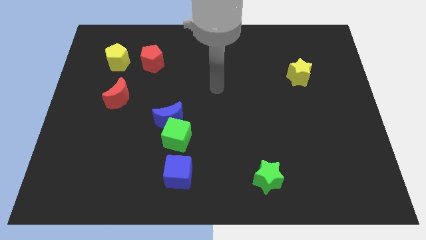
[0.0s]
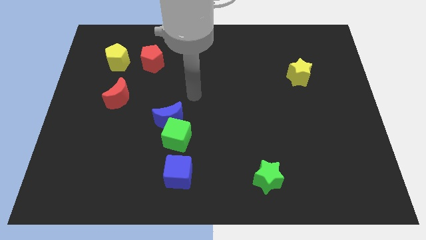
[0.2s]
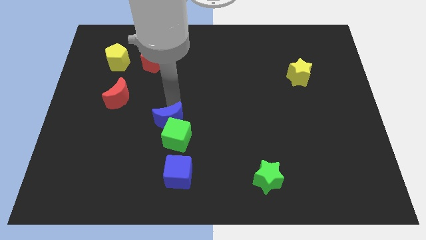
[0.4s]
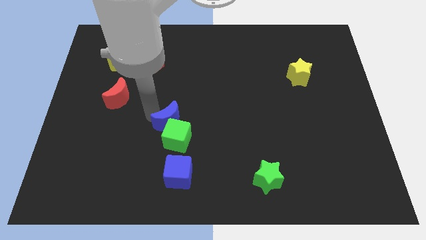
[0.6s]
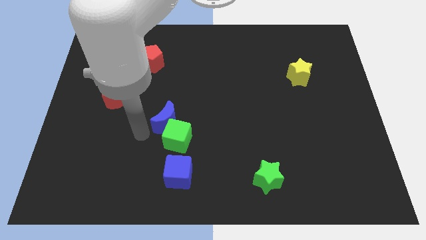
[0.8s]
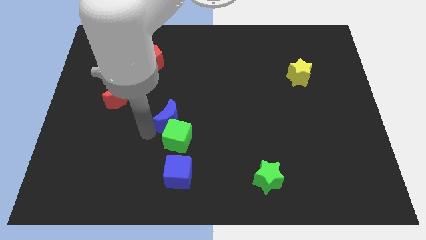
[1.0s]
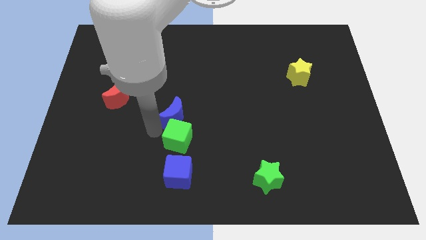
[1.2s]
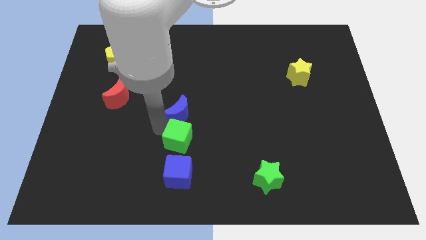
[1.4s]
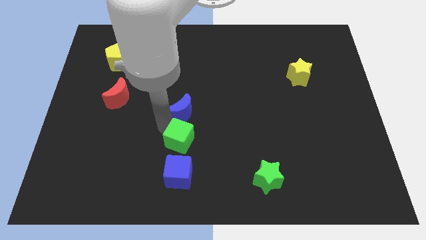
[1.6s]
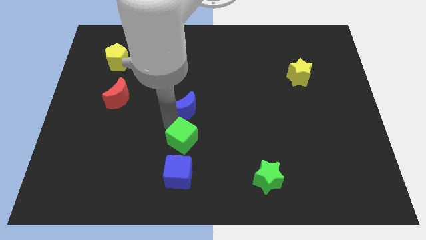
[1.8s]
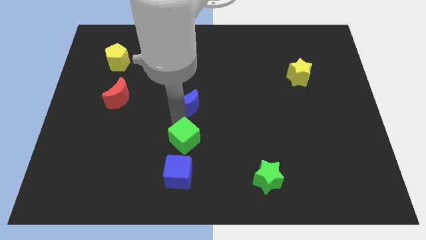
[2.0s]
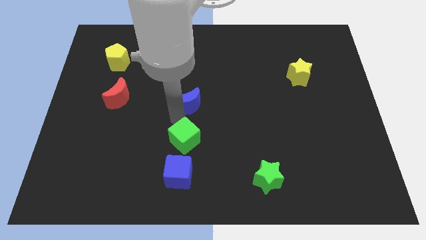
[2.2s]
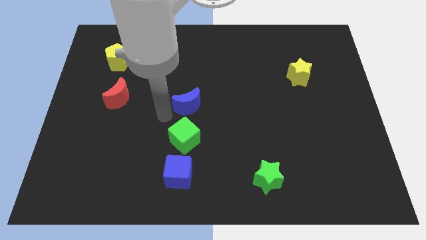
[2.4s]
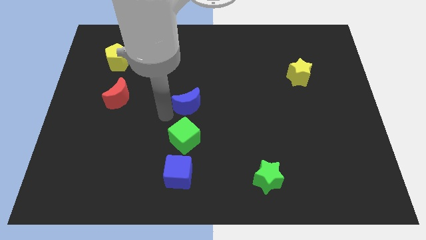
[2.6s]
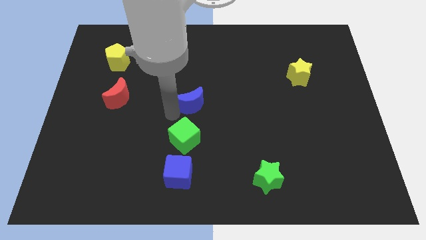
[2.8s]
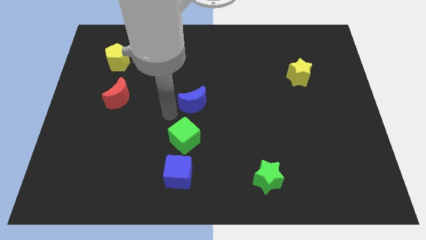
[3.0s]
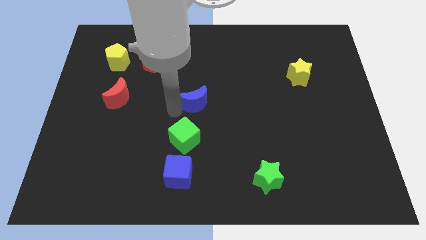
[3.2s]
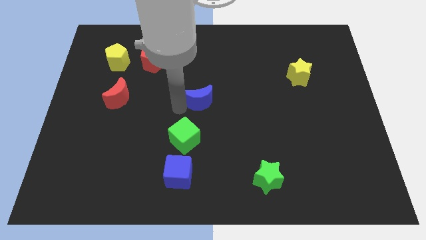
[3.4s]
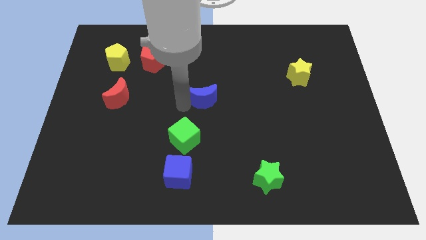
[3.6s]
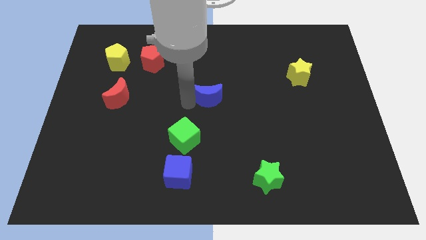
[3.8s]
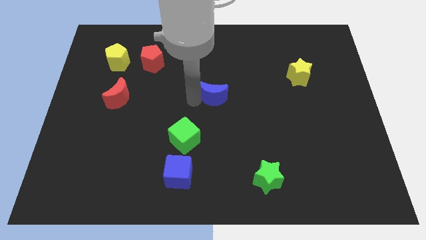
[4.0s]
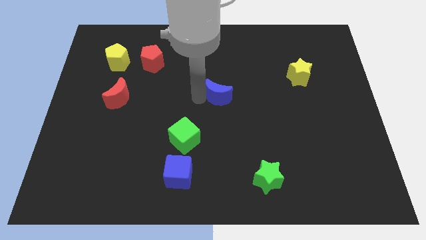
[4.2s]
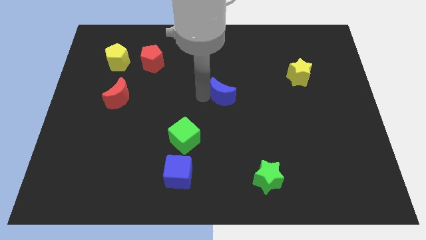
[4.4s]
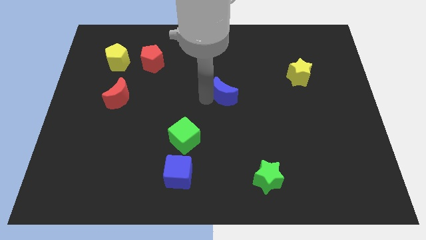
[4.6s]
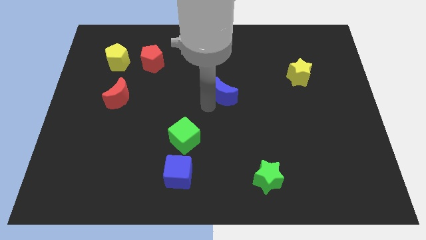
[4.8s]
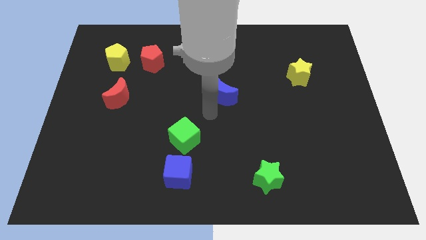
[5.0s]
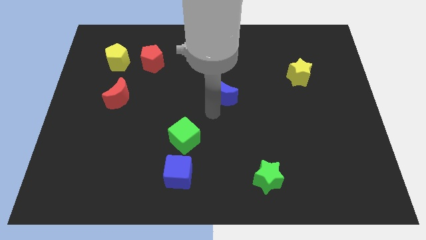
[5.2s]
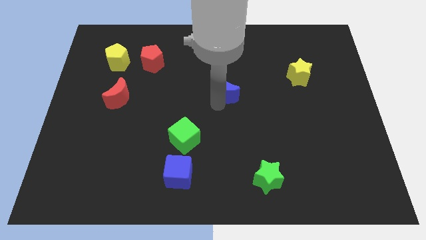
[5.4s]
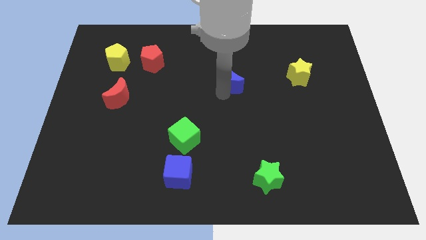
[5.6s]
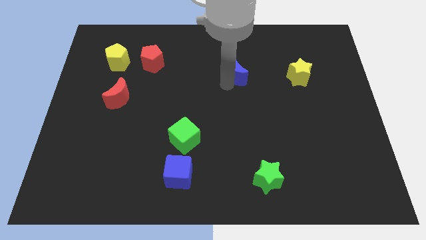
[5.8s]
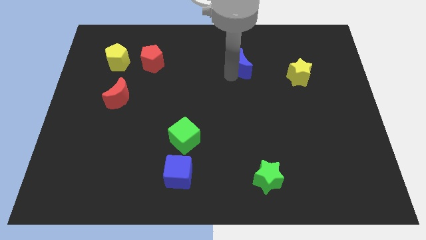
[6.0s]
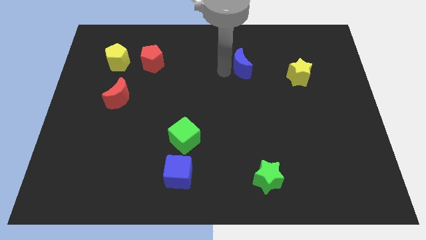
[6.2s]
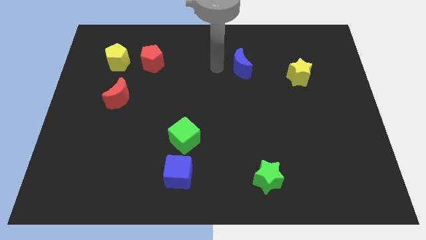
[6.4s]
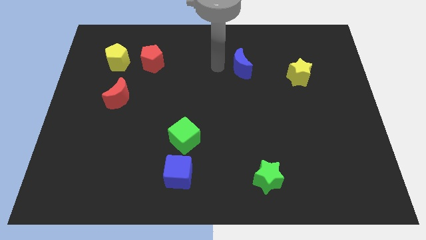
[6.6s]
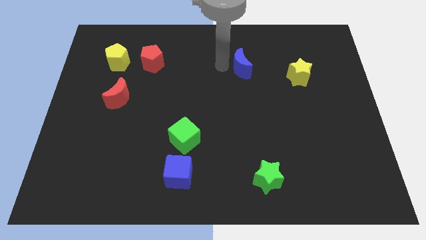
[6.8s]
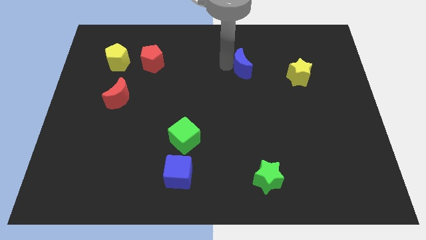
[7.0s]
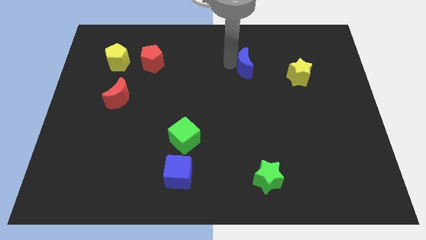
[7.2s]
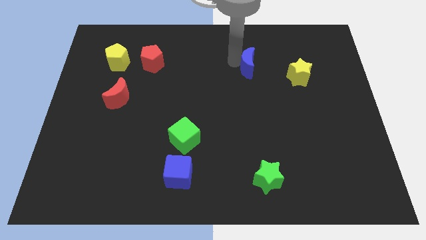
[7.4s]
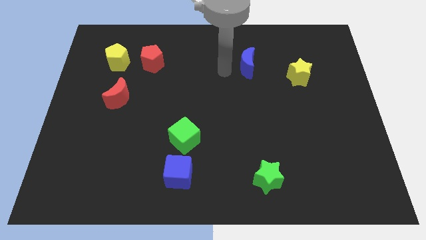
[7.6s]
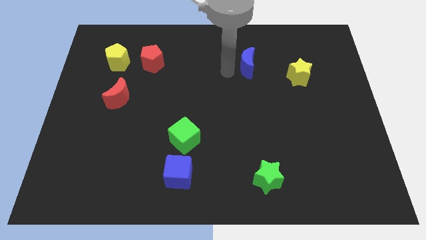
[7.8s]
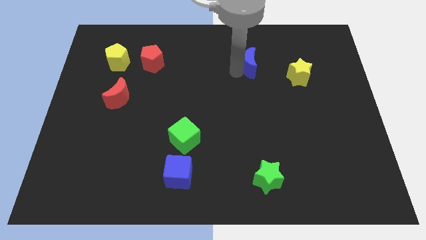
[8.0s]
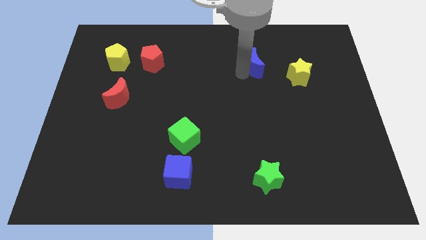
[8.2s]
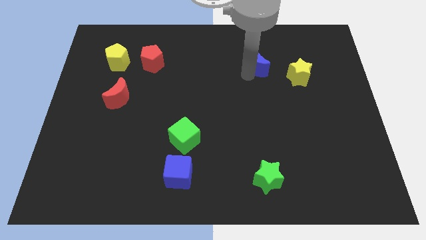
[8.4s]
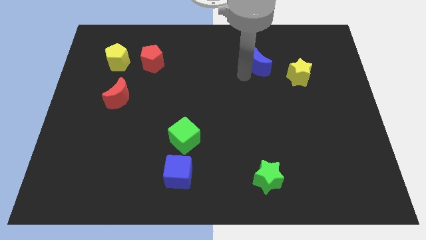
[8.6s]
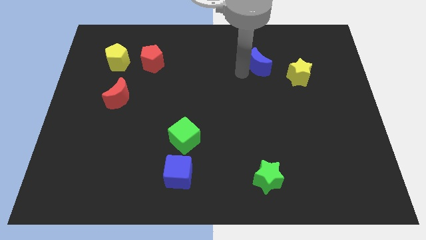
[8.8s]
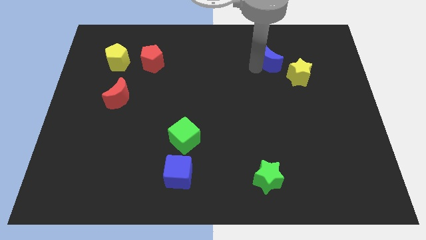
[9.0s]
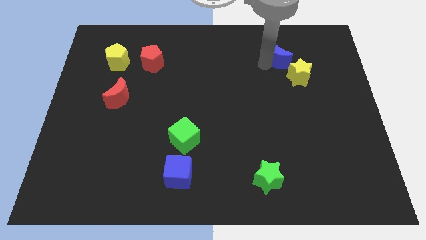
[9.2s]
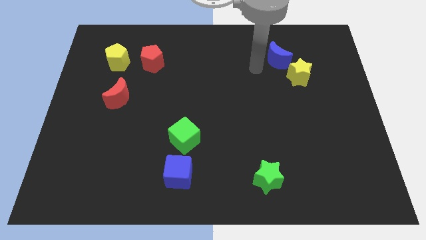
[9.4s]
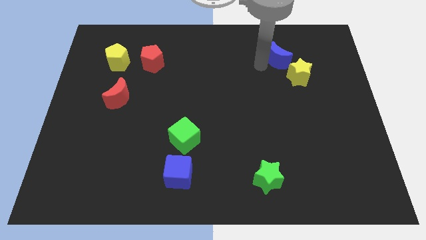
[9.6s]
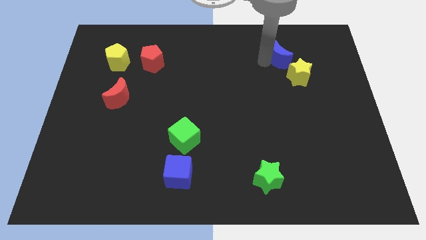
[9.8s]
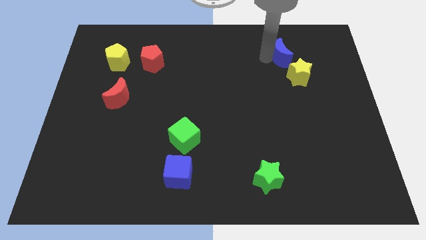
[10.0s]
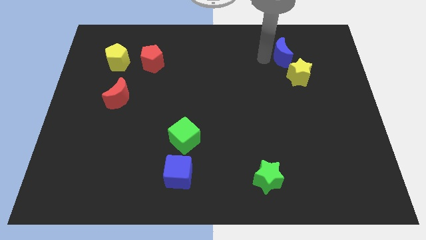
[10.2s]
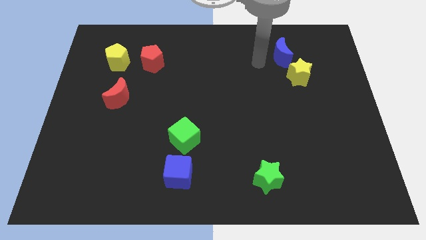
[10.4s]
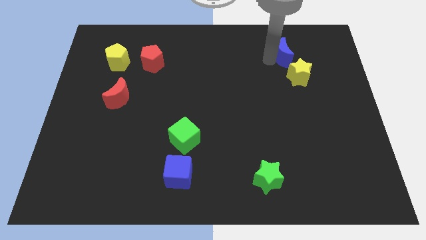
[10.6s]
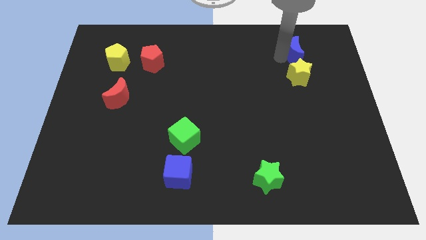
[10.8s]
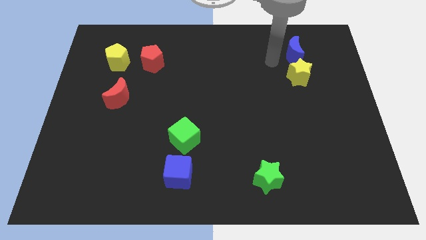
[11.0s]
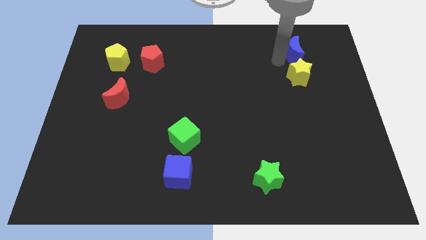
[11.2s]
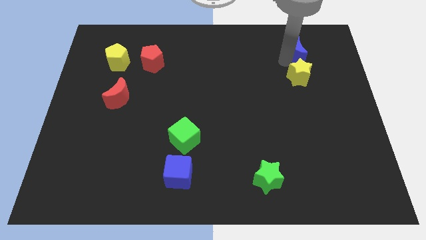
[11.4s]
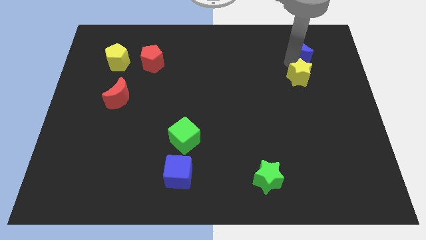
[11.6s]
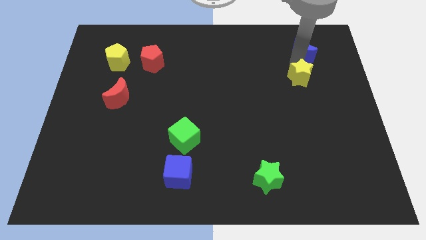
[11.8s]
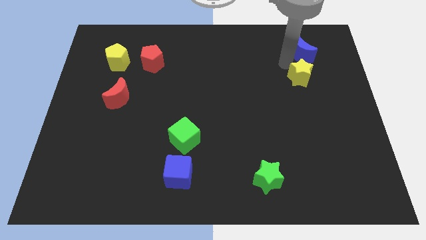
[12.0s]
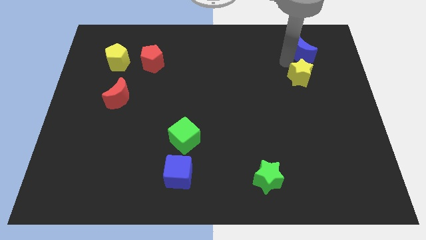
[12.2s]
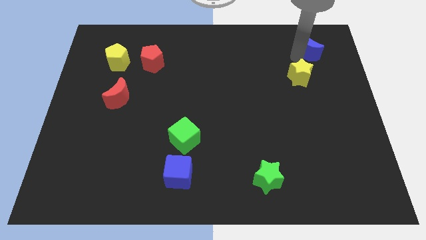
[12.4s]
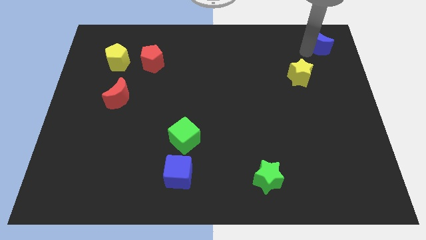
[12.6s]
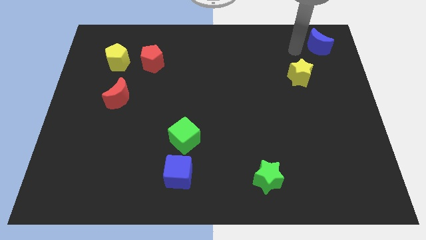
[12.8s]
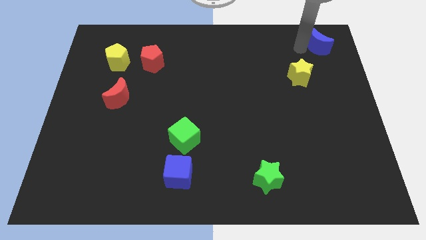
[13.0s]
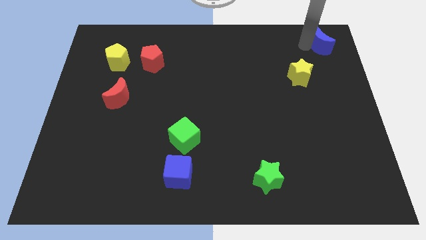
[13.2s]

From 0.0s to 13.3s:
slide the blue moon to the top right

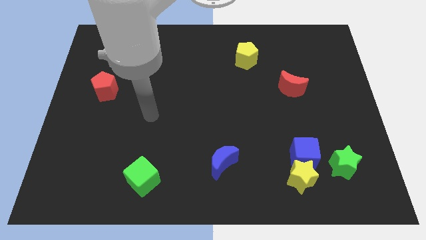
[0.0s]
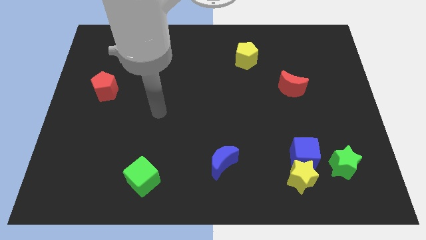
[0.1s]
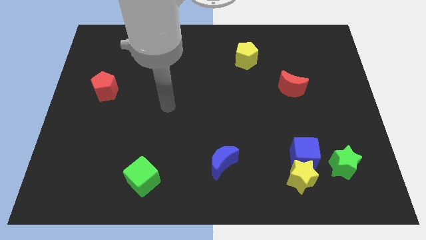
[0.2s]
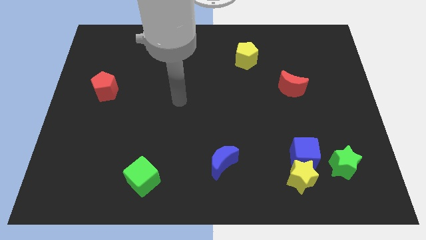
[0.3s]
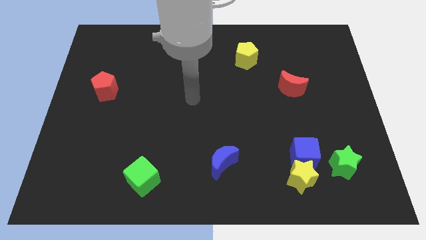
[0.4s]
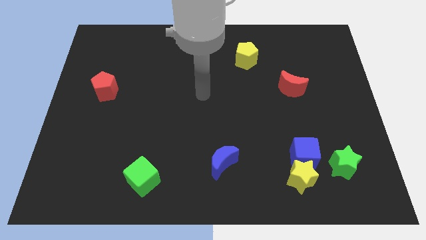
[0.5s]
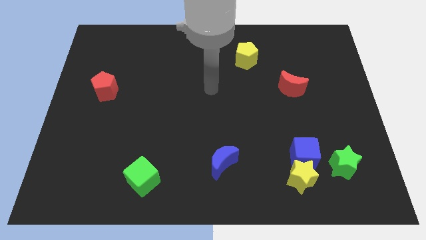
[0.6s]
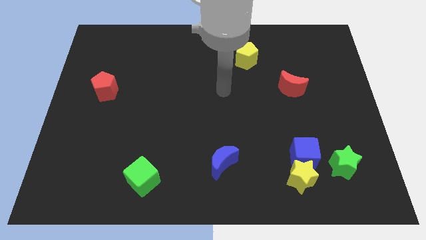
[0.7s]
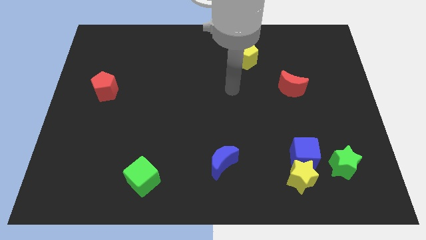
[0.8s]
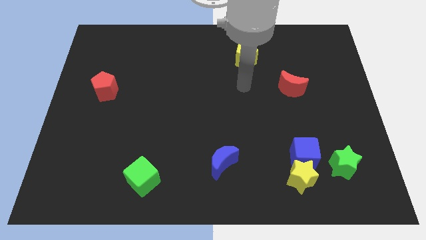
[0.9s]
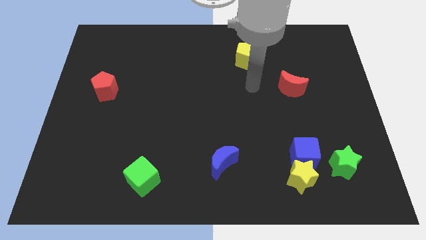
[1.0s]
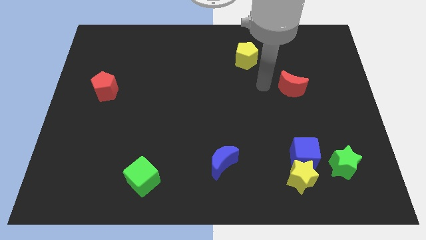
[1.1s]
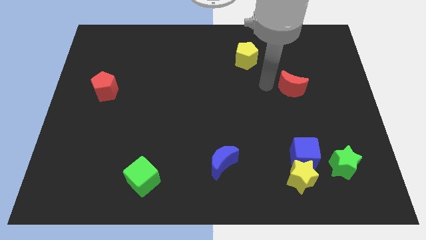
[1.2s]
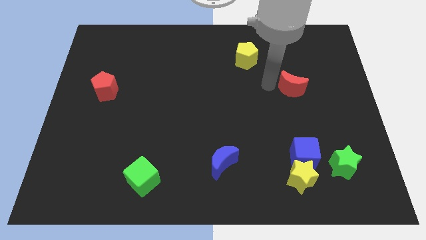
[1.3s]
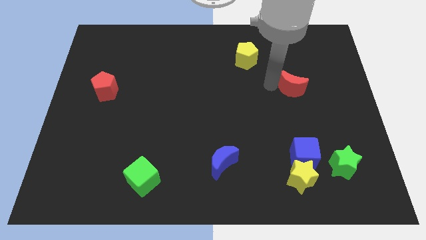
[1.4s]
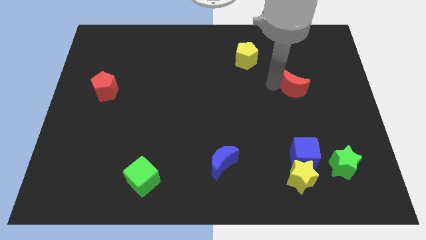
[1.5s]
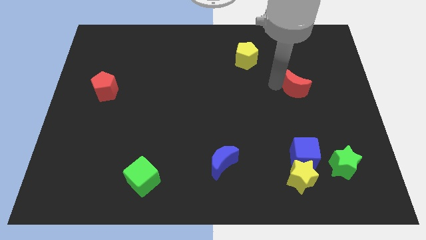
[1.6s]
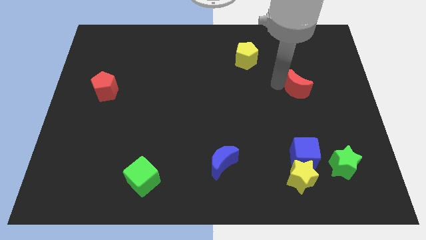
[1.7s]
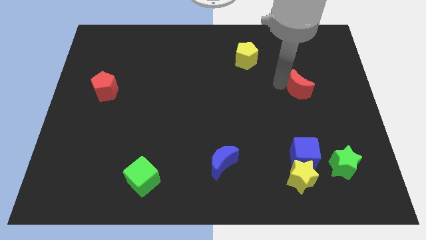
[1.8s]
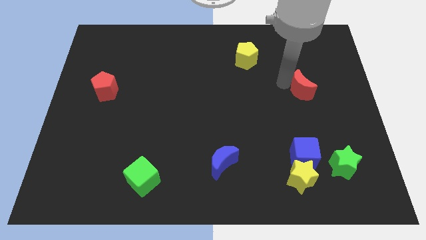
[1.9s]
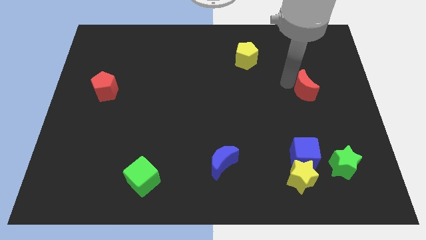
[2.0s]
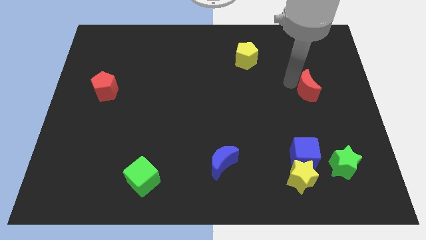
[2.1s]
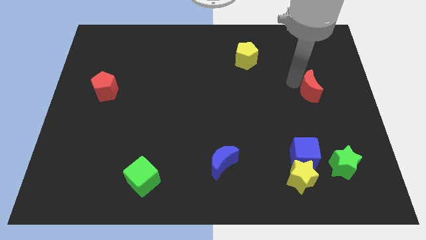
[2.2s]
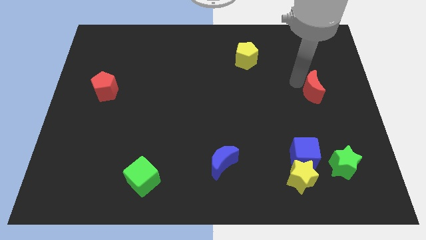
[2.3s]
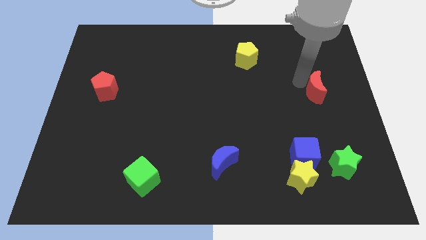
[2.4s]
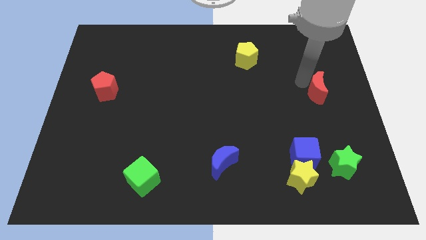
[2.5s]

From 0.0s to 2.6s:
move the red moon to the right side of the board
